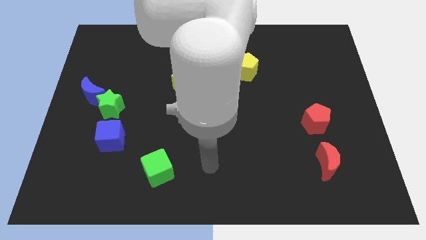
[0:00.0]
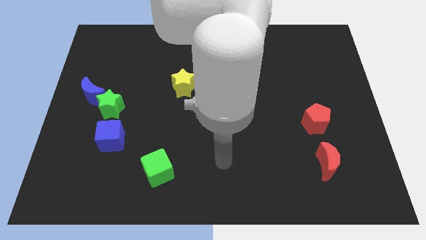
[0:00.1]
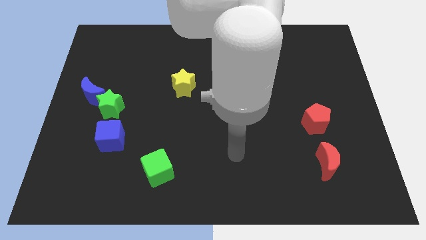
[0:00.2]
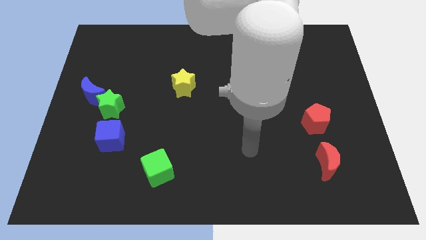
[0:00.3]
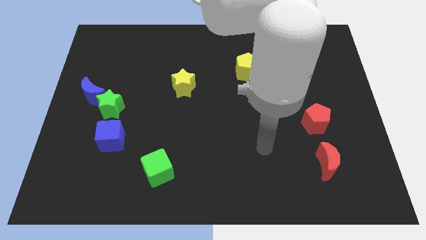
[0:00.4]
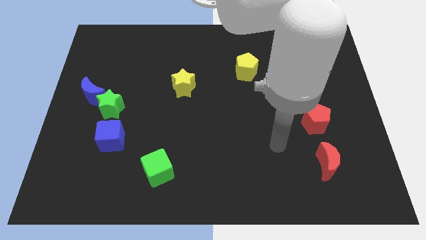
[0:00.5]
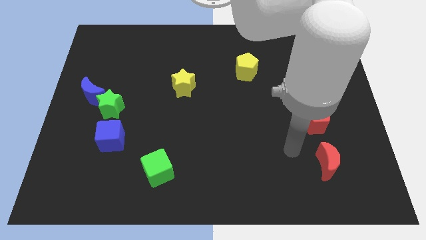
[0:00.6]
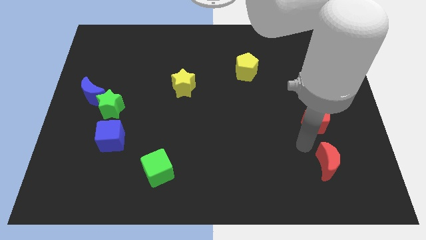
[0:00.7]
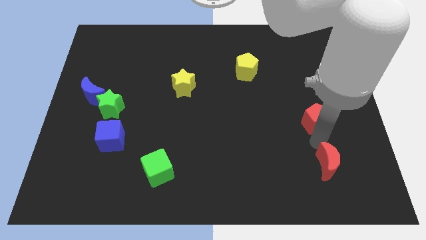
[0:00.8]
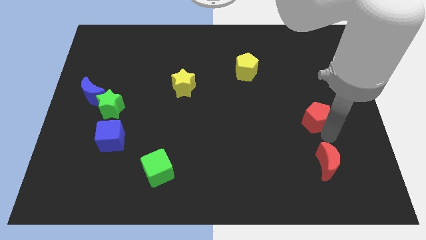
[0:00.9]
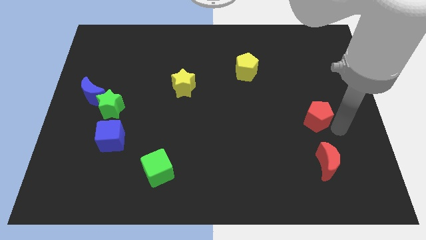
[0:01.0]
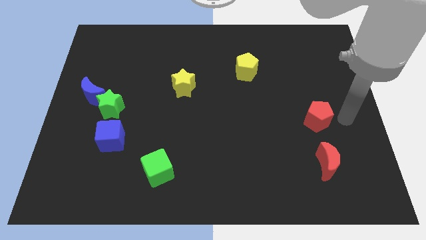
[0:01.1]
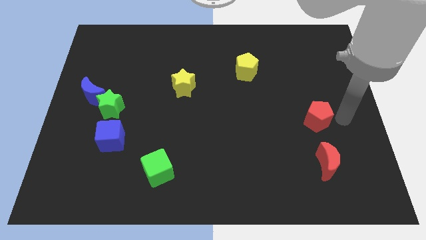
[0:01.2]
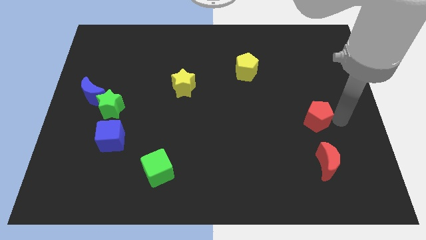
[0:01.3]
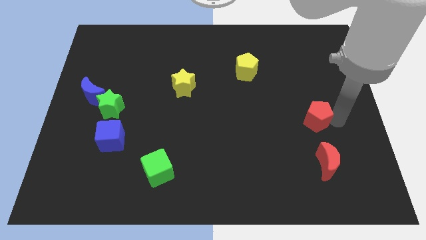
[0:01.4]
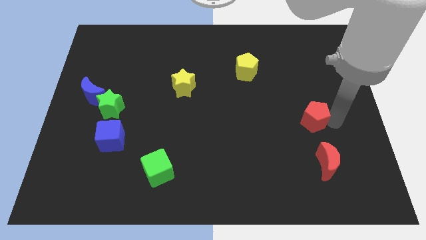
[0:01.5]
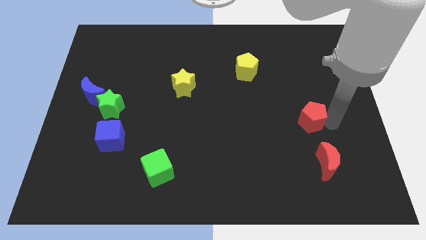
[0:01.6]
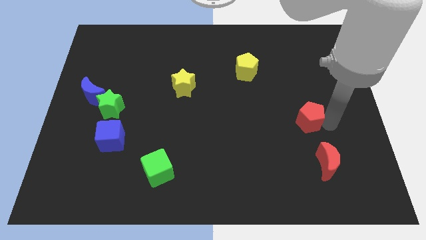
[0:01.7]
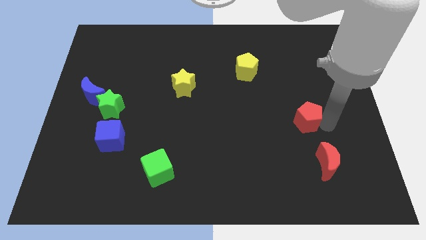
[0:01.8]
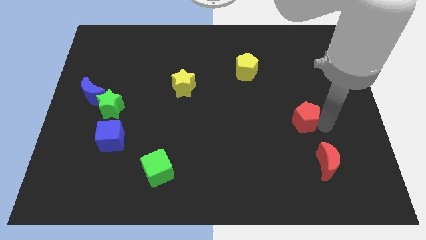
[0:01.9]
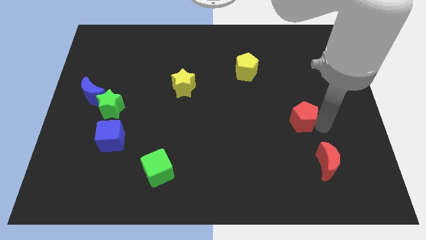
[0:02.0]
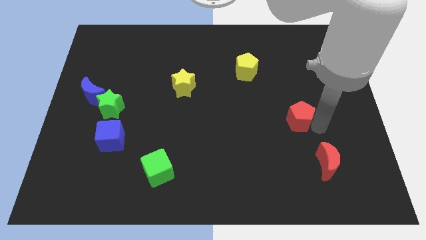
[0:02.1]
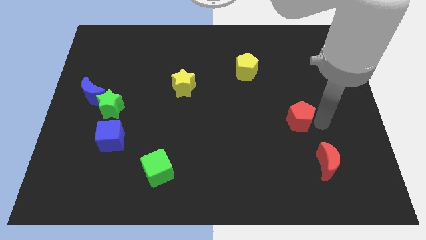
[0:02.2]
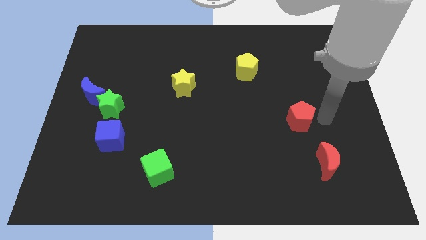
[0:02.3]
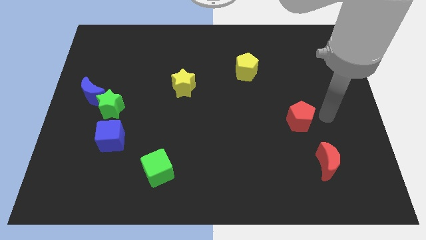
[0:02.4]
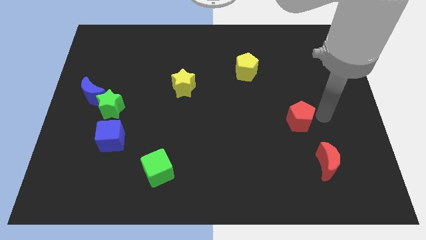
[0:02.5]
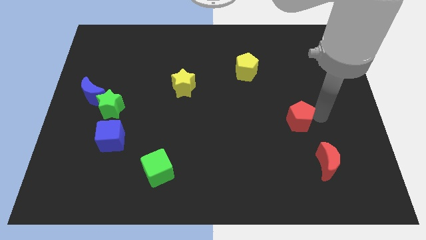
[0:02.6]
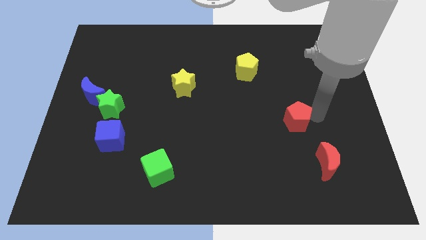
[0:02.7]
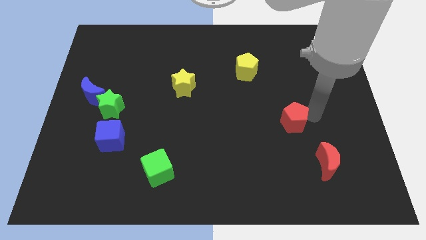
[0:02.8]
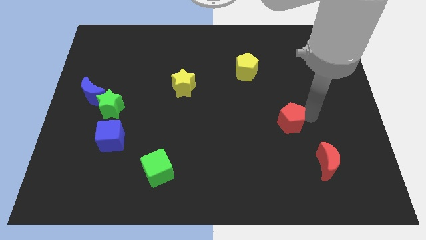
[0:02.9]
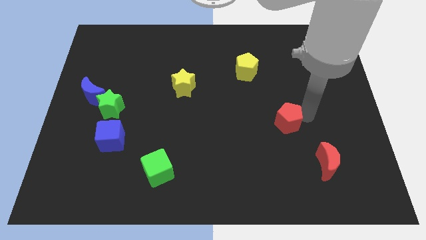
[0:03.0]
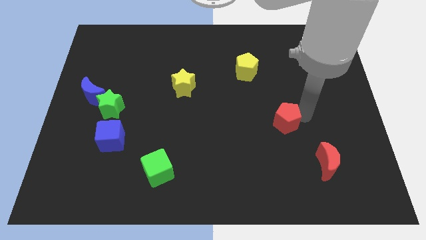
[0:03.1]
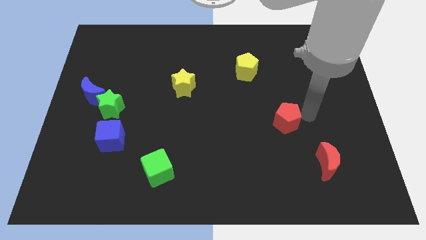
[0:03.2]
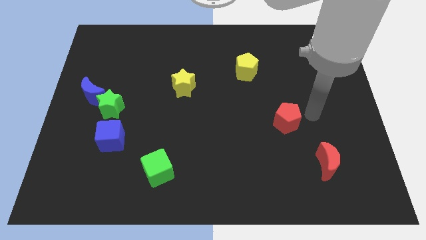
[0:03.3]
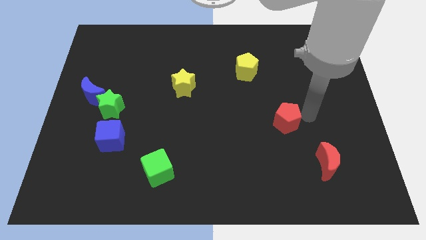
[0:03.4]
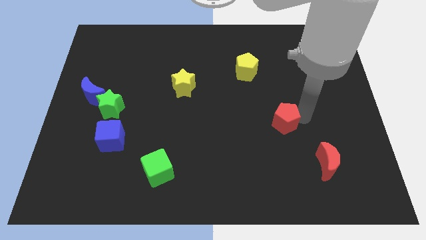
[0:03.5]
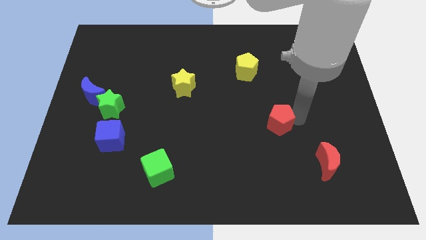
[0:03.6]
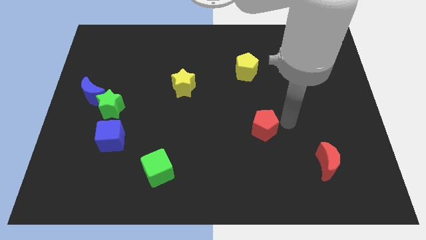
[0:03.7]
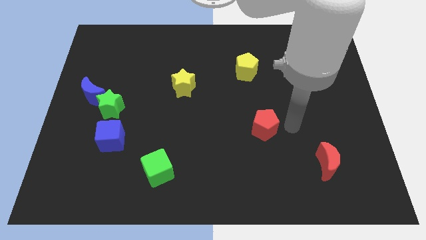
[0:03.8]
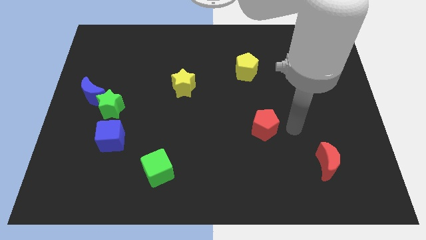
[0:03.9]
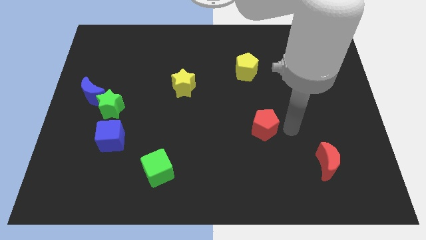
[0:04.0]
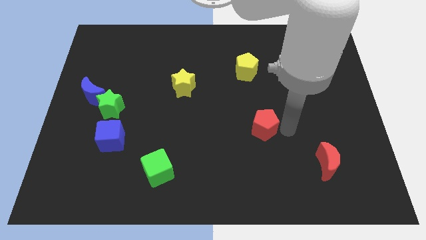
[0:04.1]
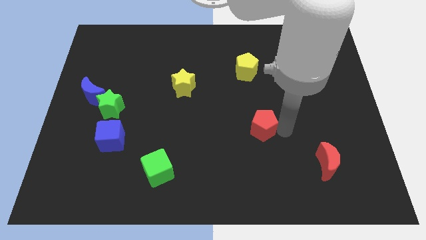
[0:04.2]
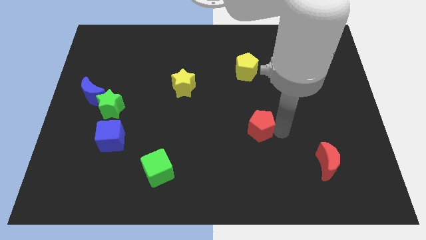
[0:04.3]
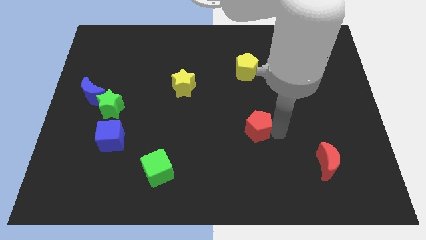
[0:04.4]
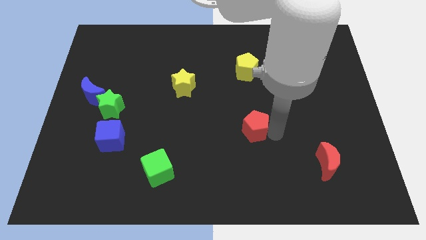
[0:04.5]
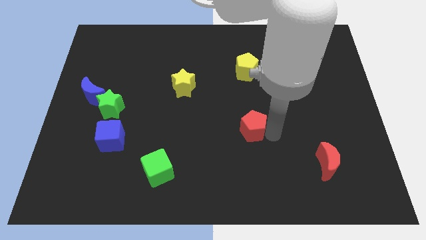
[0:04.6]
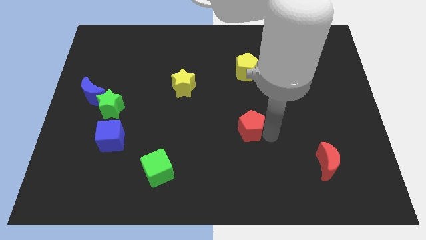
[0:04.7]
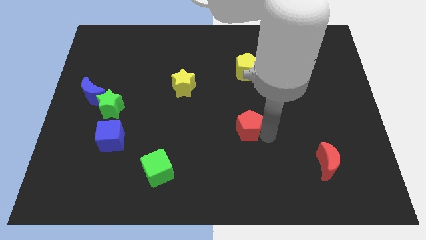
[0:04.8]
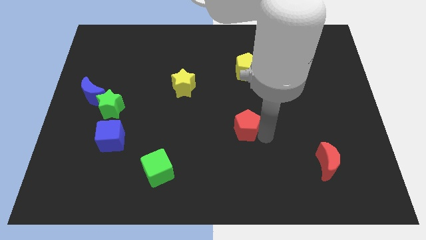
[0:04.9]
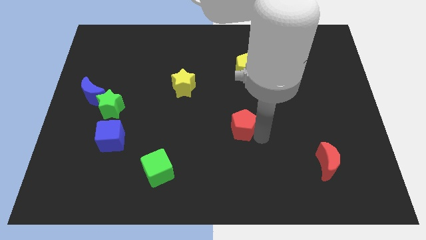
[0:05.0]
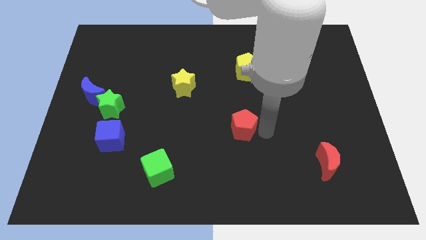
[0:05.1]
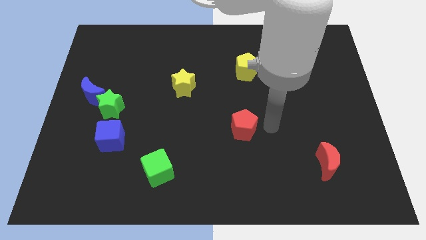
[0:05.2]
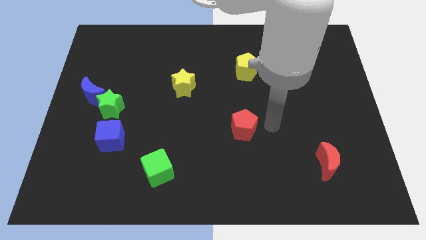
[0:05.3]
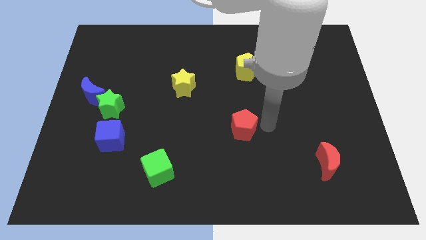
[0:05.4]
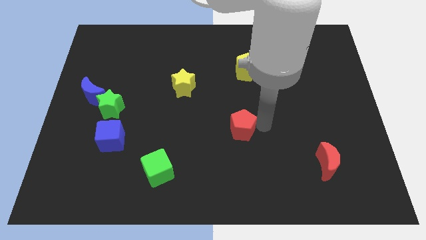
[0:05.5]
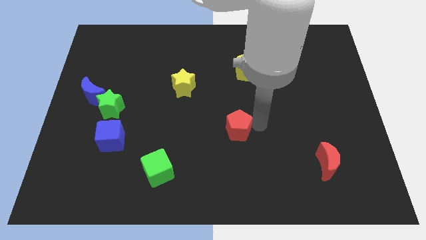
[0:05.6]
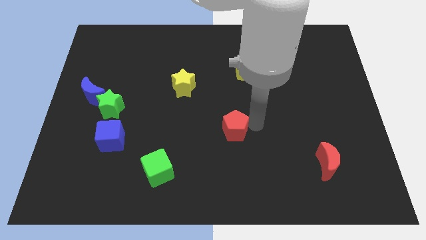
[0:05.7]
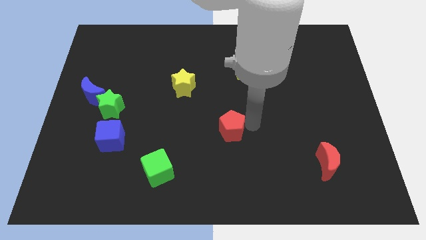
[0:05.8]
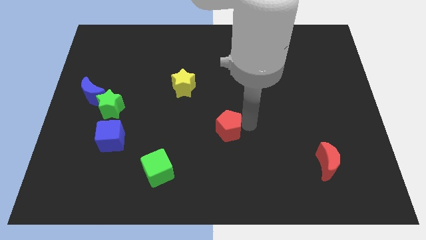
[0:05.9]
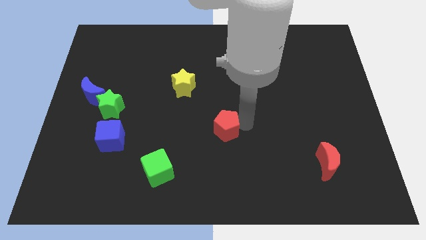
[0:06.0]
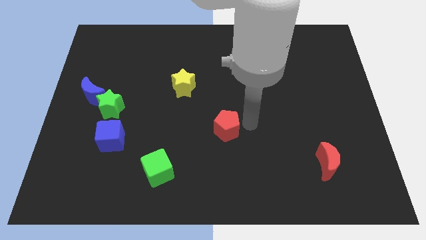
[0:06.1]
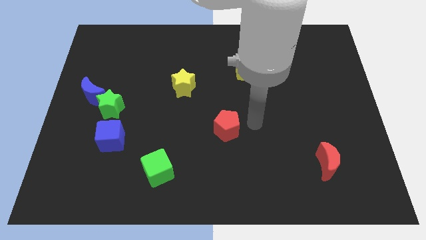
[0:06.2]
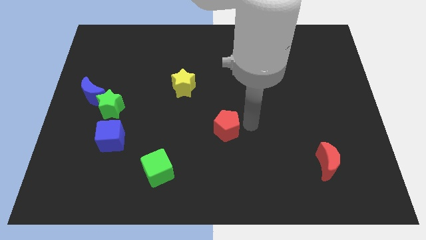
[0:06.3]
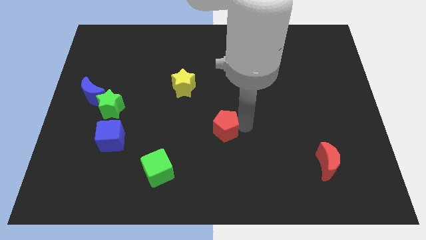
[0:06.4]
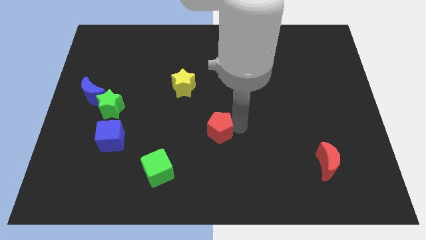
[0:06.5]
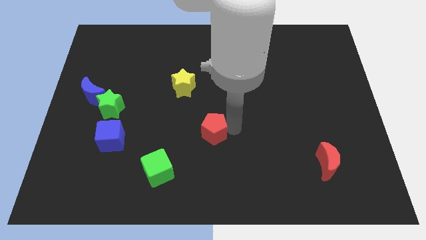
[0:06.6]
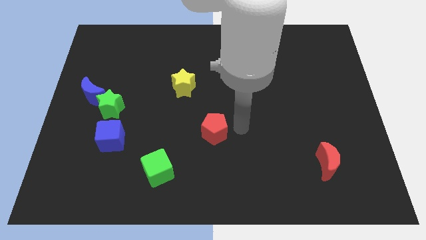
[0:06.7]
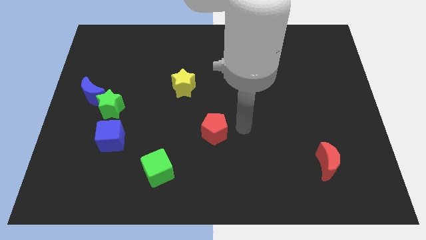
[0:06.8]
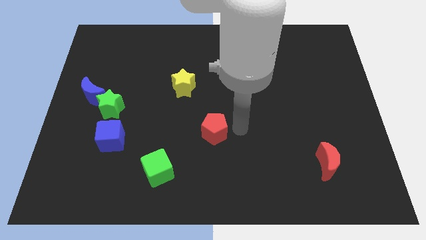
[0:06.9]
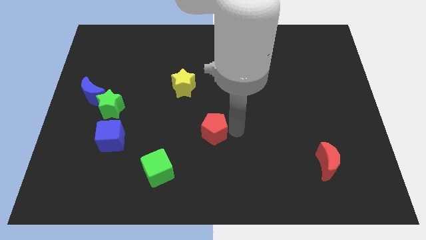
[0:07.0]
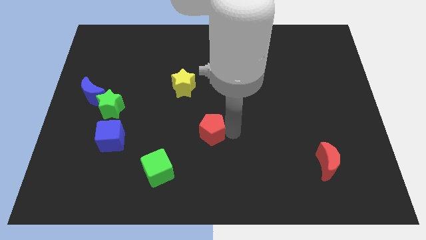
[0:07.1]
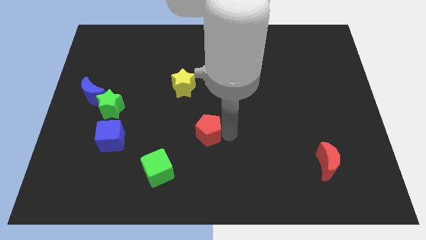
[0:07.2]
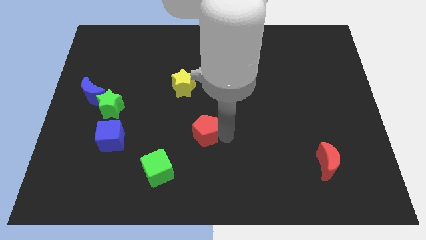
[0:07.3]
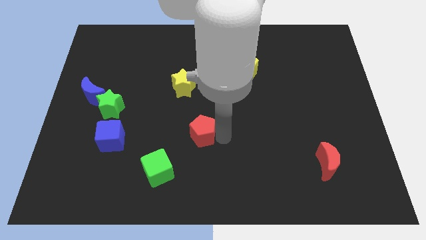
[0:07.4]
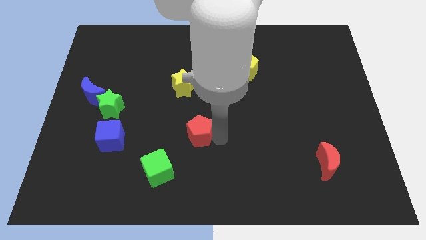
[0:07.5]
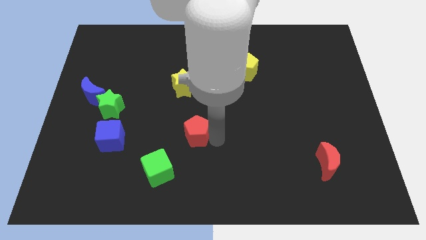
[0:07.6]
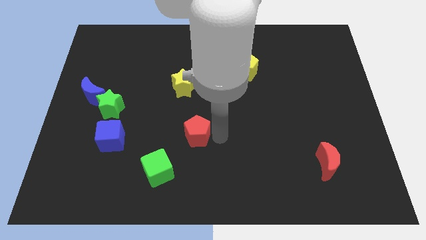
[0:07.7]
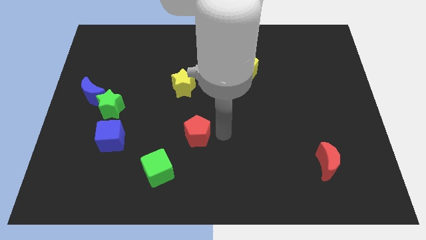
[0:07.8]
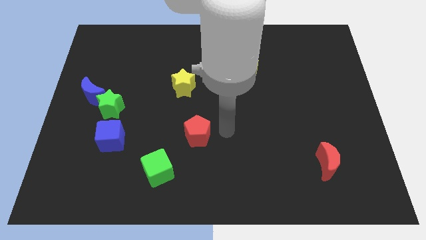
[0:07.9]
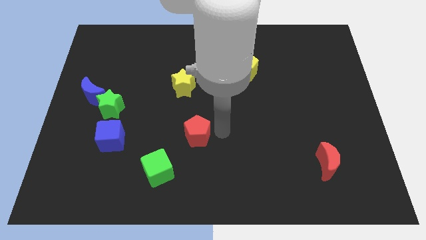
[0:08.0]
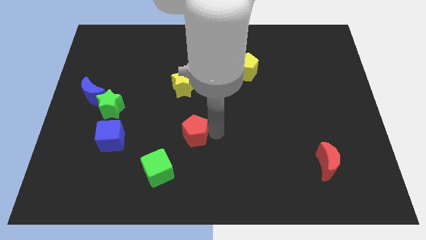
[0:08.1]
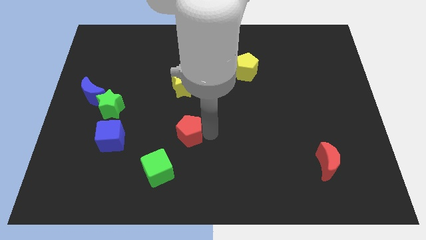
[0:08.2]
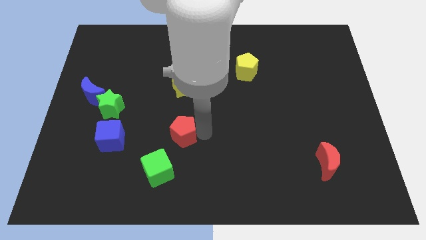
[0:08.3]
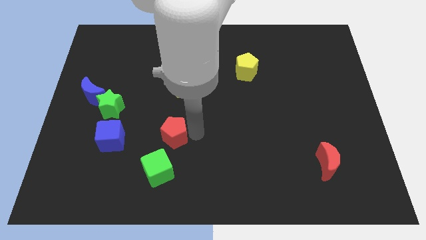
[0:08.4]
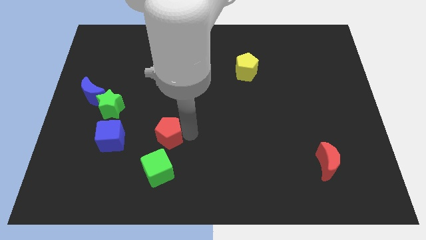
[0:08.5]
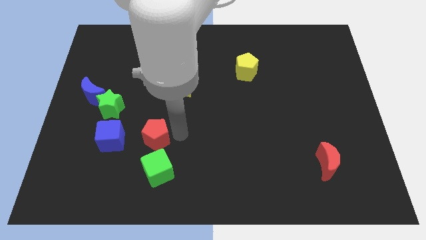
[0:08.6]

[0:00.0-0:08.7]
put the red pentagon to the top left of the green cube
